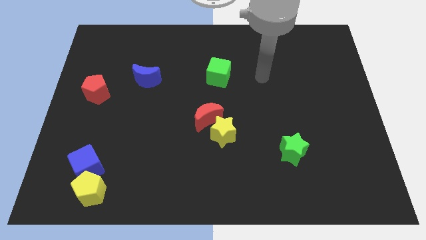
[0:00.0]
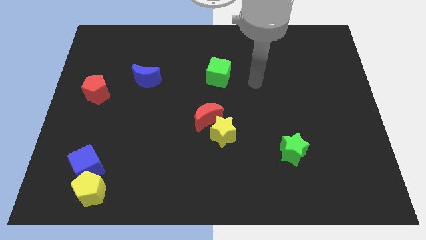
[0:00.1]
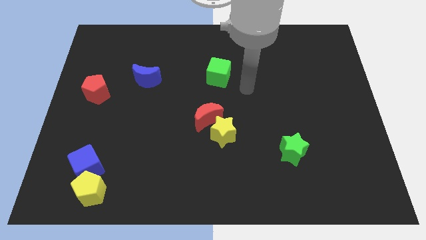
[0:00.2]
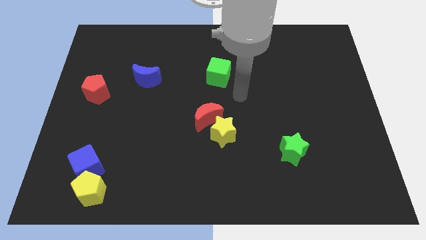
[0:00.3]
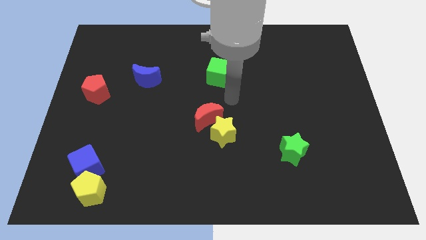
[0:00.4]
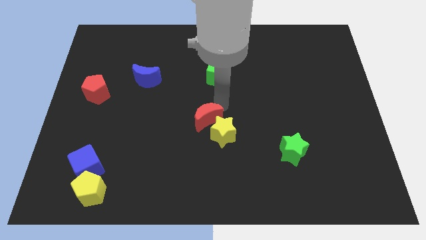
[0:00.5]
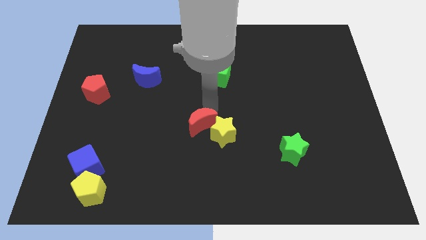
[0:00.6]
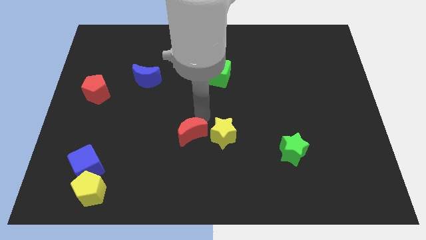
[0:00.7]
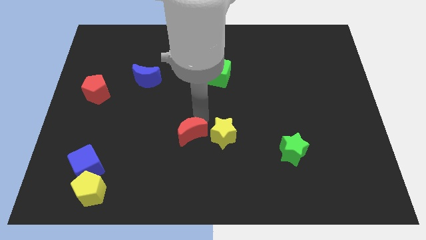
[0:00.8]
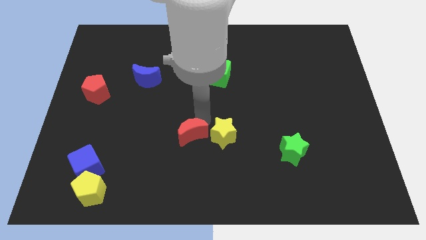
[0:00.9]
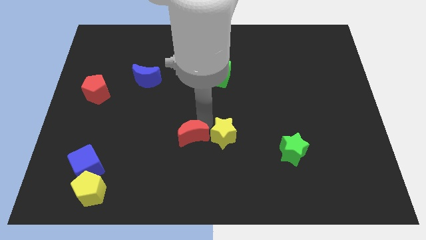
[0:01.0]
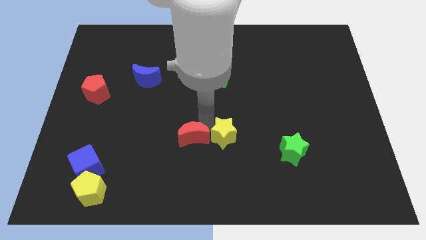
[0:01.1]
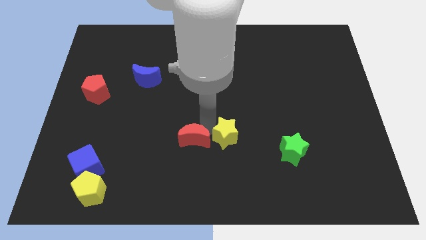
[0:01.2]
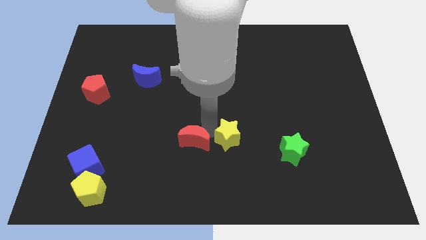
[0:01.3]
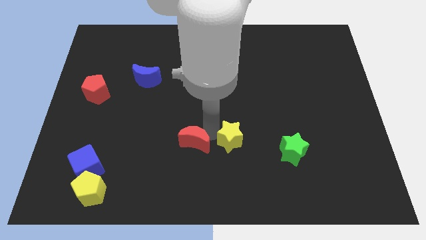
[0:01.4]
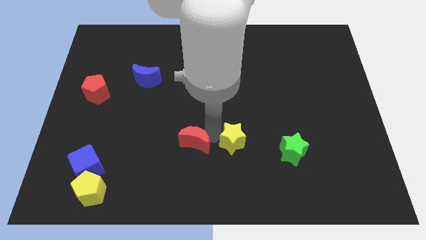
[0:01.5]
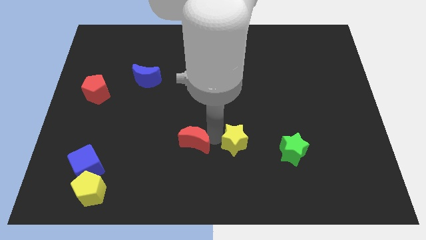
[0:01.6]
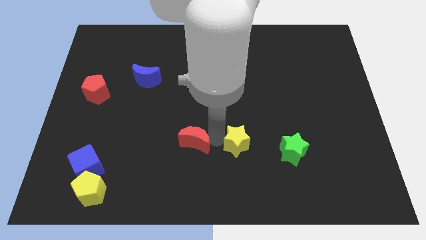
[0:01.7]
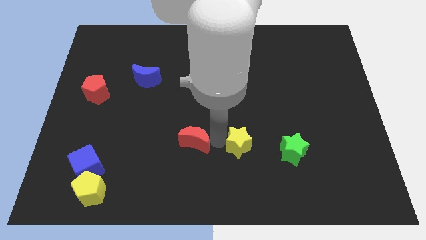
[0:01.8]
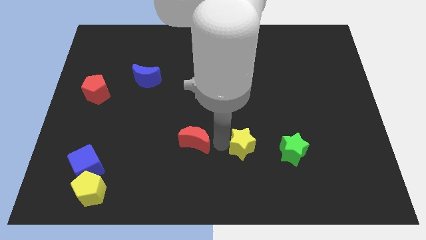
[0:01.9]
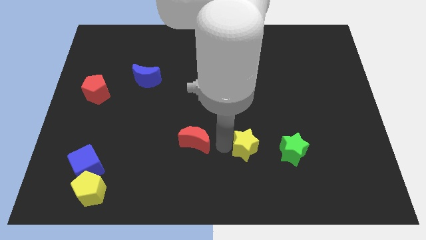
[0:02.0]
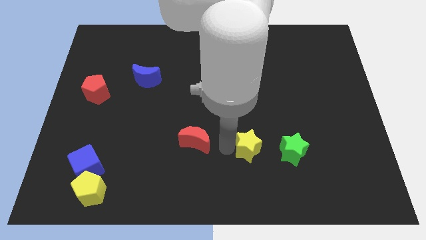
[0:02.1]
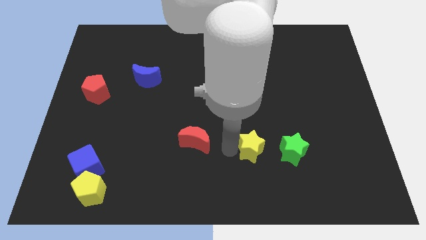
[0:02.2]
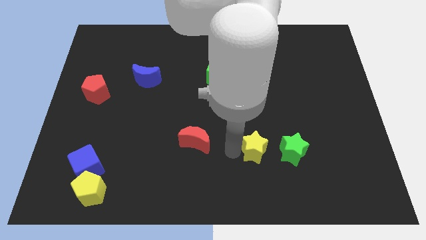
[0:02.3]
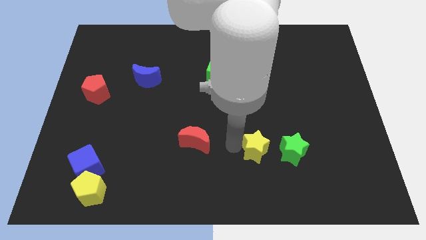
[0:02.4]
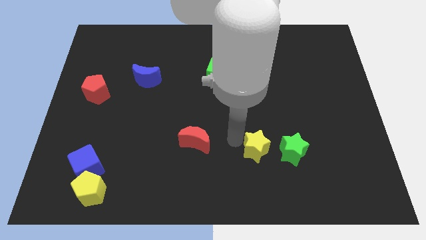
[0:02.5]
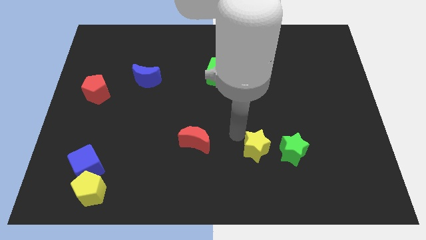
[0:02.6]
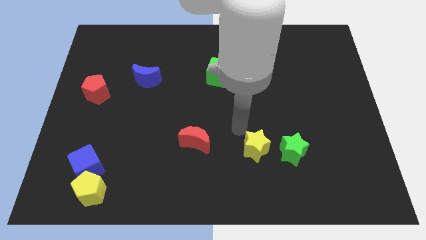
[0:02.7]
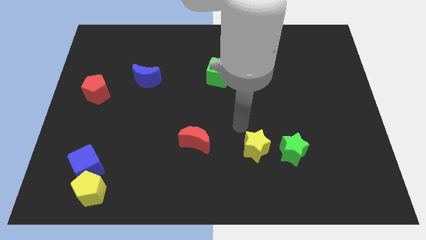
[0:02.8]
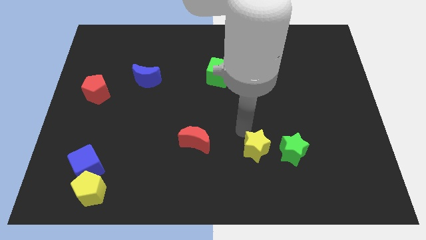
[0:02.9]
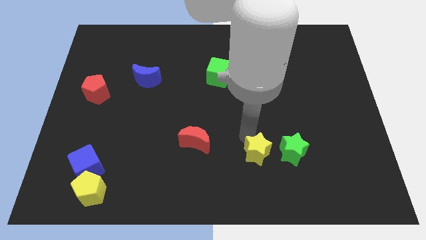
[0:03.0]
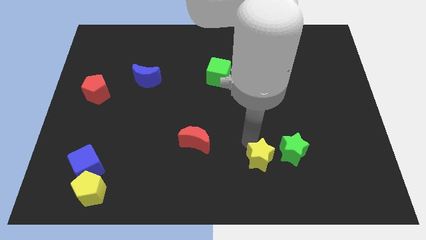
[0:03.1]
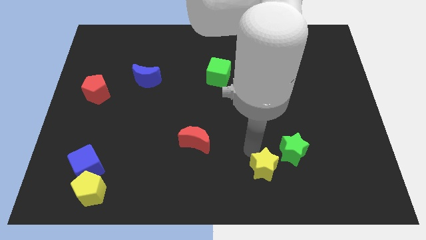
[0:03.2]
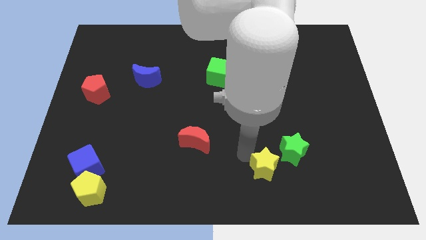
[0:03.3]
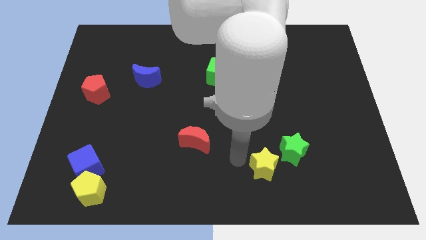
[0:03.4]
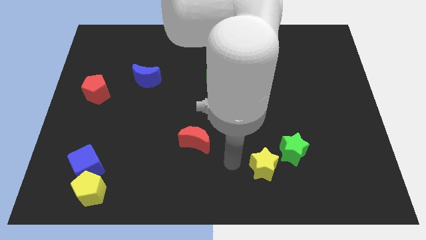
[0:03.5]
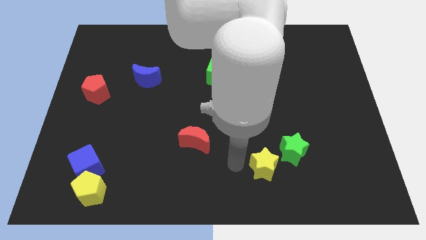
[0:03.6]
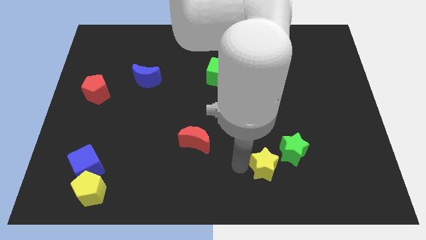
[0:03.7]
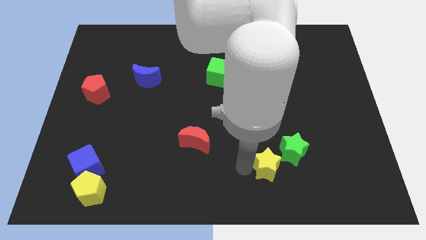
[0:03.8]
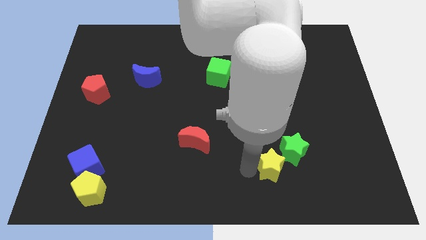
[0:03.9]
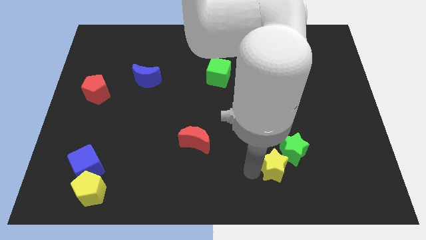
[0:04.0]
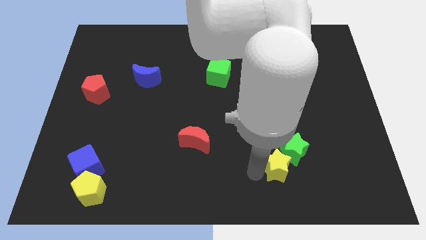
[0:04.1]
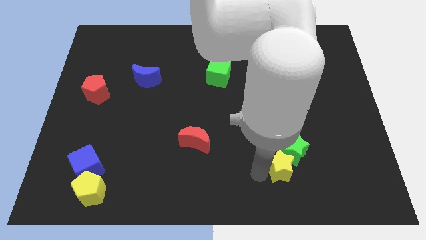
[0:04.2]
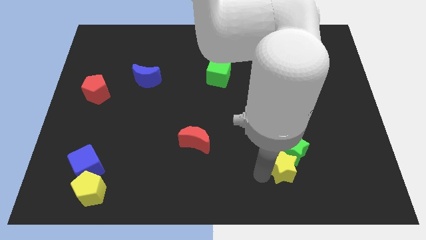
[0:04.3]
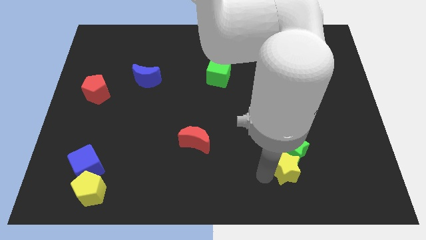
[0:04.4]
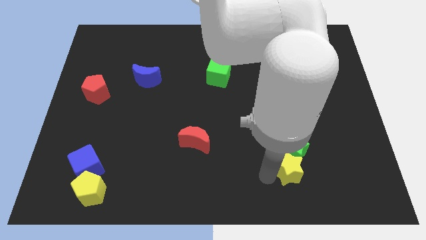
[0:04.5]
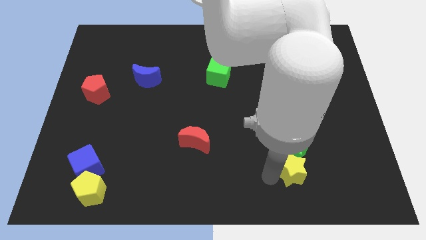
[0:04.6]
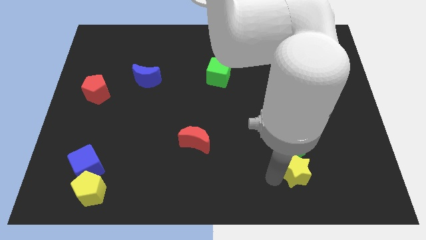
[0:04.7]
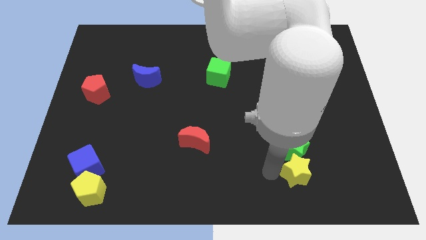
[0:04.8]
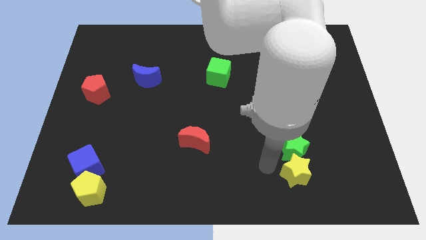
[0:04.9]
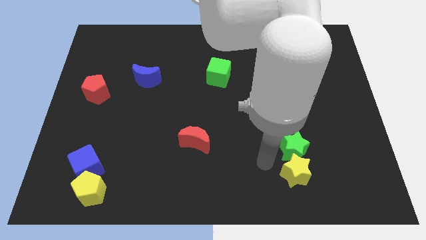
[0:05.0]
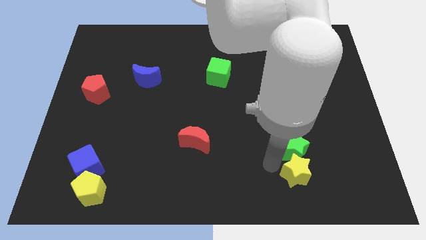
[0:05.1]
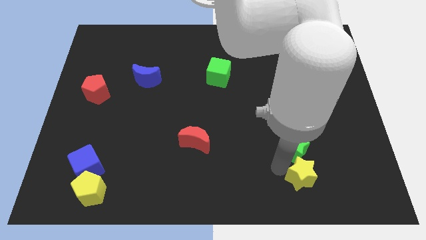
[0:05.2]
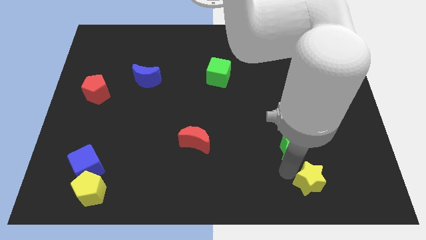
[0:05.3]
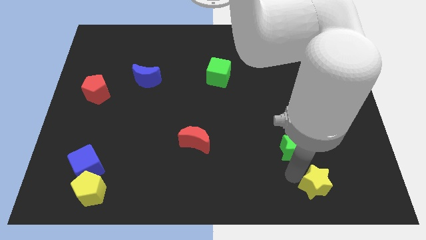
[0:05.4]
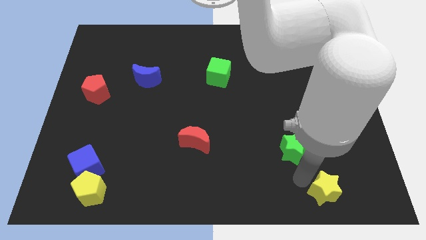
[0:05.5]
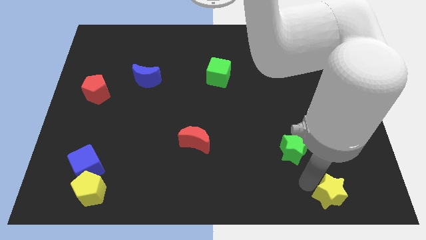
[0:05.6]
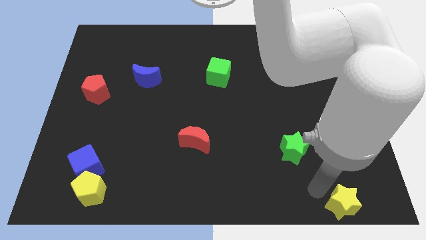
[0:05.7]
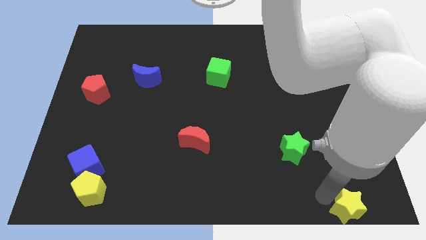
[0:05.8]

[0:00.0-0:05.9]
move the yellow star to the bottom right

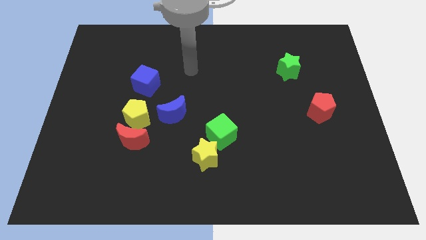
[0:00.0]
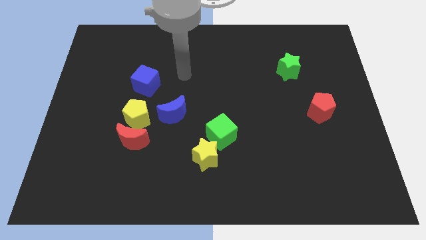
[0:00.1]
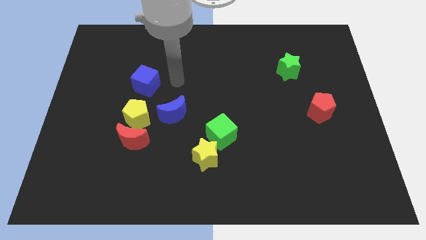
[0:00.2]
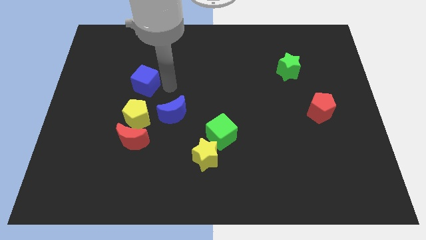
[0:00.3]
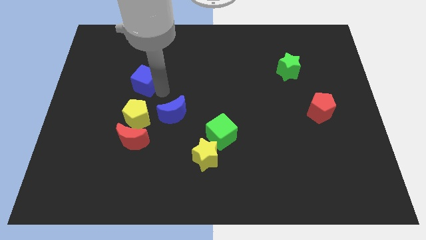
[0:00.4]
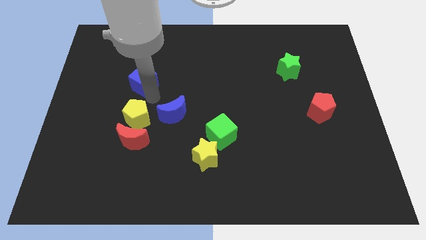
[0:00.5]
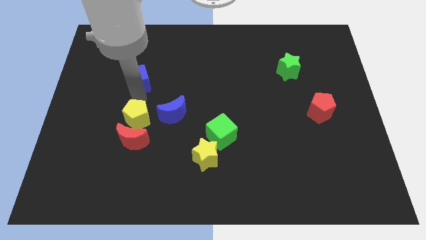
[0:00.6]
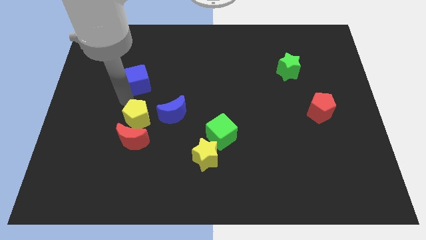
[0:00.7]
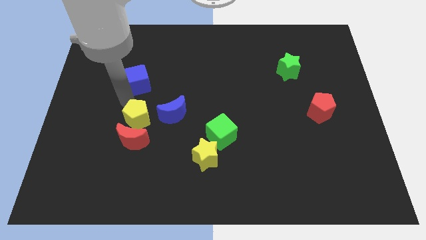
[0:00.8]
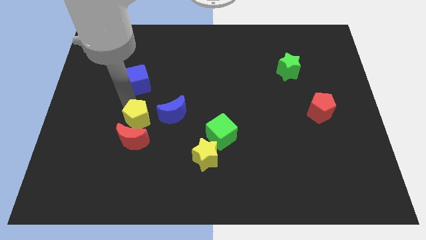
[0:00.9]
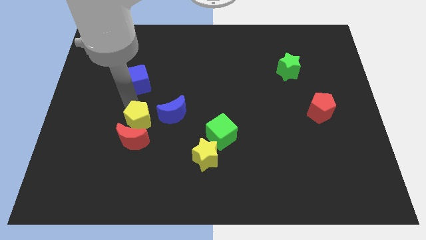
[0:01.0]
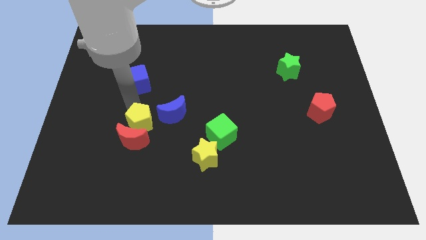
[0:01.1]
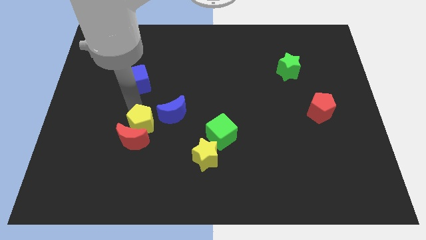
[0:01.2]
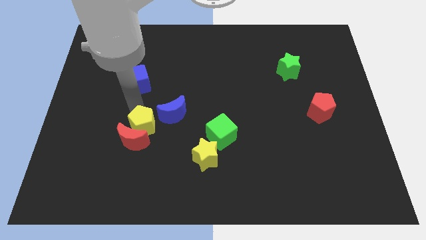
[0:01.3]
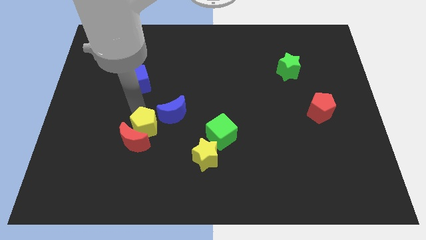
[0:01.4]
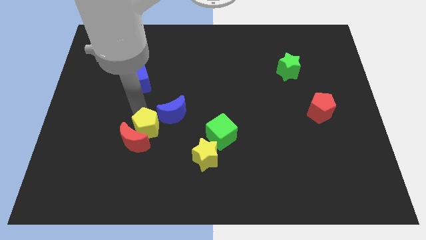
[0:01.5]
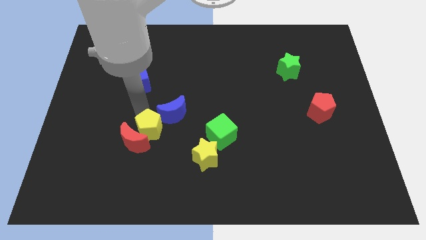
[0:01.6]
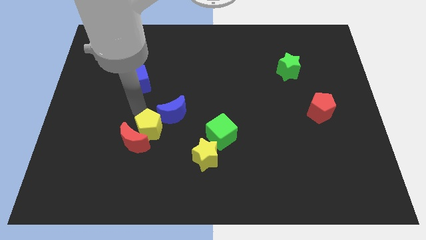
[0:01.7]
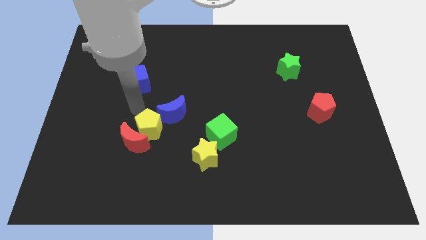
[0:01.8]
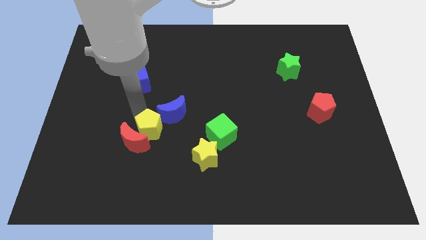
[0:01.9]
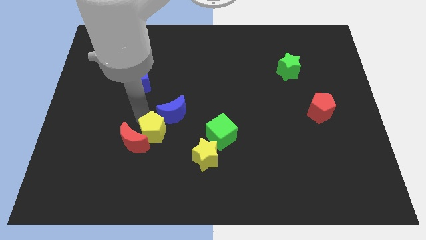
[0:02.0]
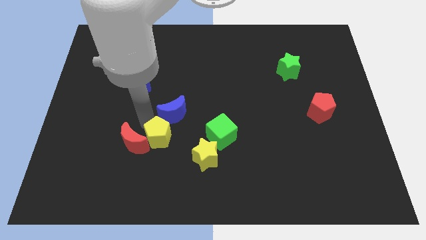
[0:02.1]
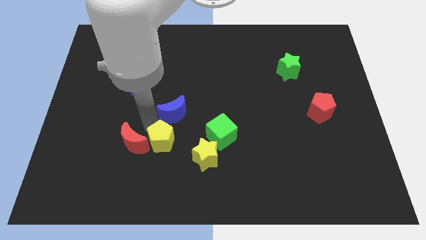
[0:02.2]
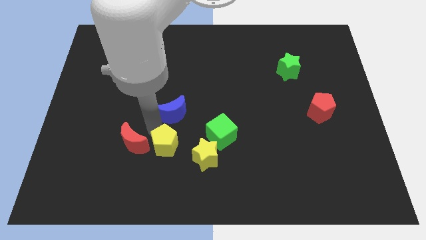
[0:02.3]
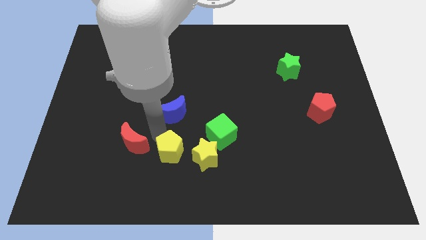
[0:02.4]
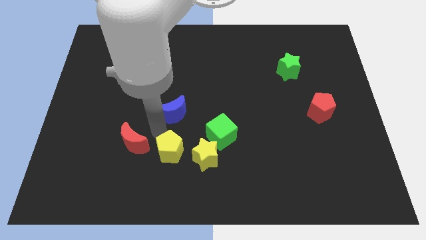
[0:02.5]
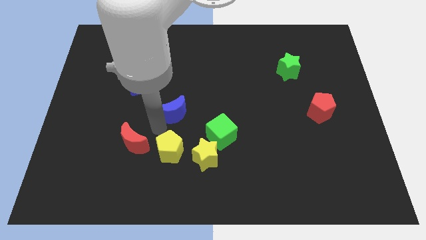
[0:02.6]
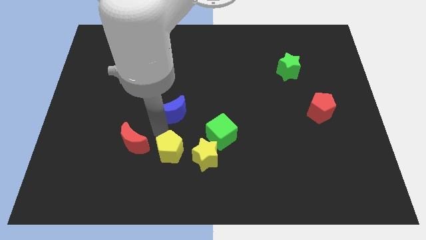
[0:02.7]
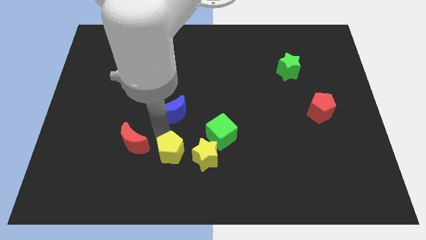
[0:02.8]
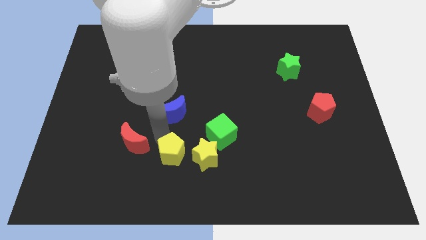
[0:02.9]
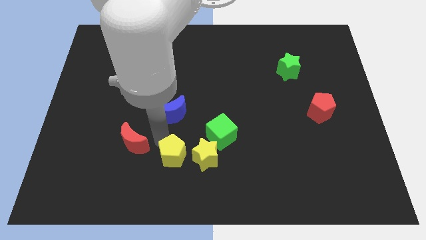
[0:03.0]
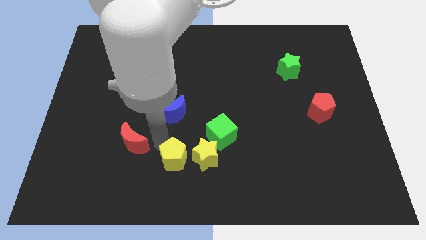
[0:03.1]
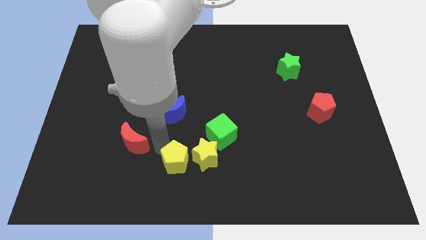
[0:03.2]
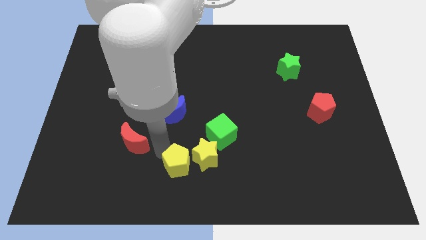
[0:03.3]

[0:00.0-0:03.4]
push the yellow pentagon to the bottom side
